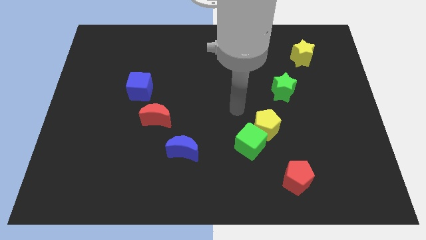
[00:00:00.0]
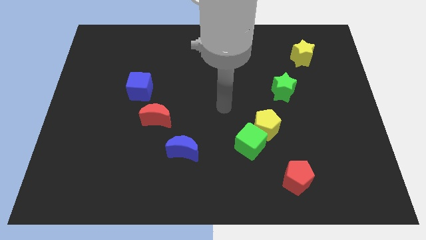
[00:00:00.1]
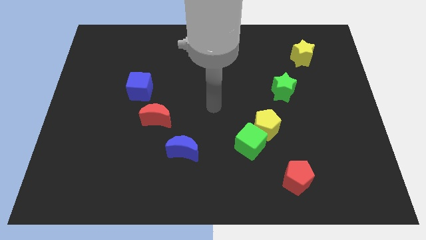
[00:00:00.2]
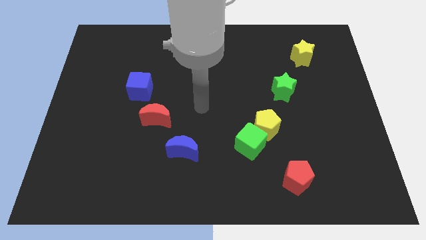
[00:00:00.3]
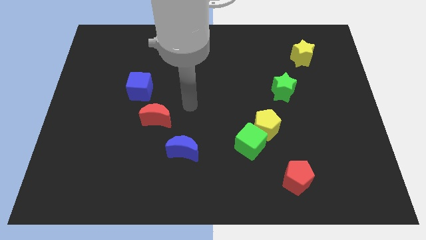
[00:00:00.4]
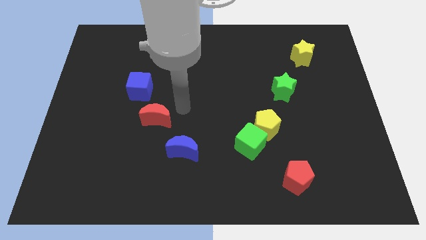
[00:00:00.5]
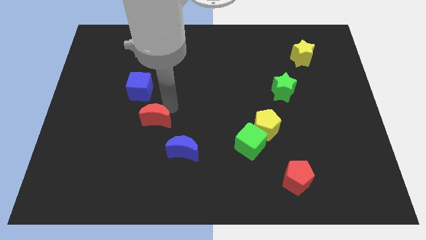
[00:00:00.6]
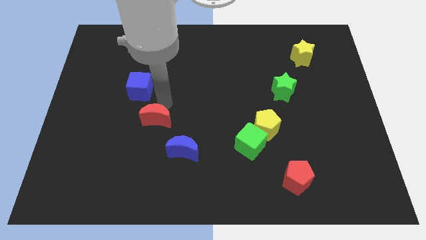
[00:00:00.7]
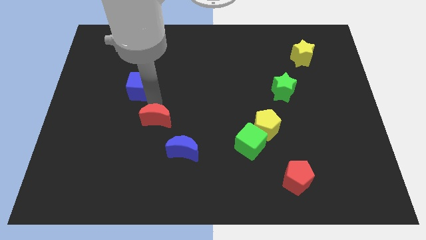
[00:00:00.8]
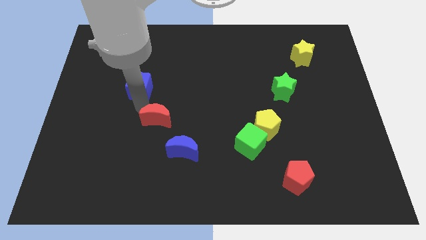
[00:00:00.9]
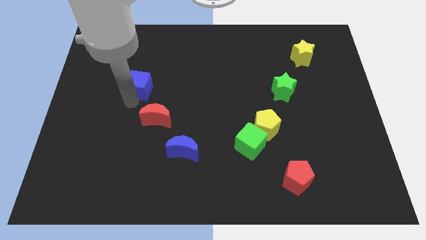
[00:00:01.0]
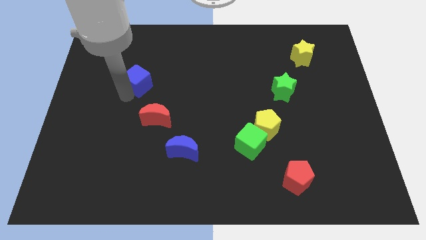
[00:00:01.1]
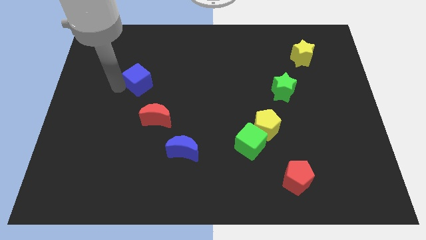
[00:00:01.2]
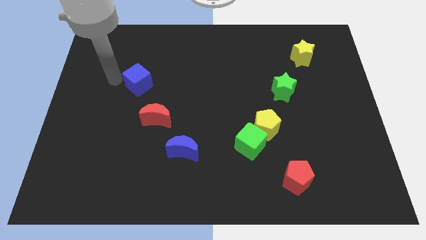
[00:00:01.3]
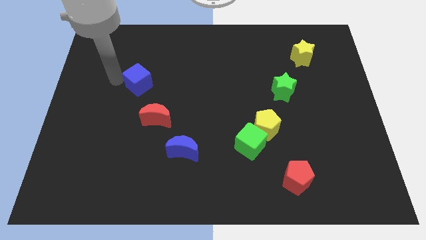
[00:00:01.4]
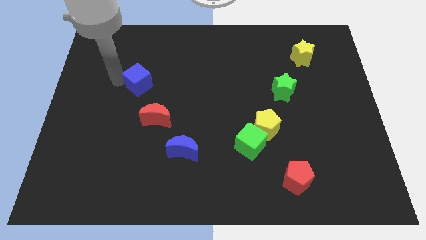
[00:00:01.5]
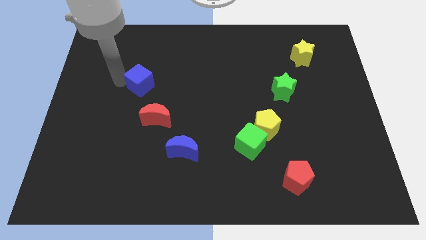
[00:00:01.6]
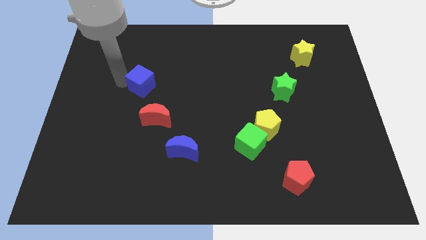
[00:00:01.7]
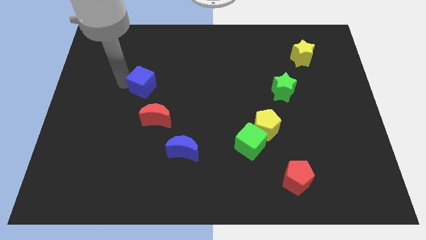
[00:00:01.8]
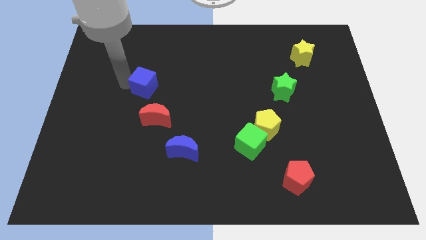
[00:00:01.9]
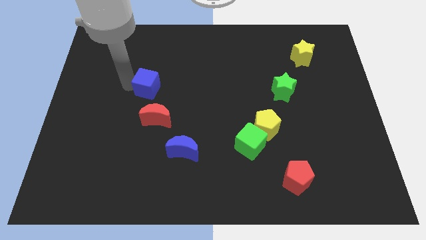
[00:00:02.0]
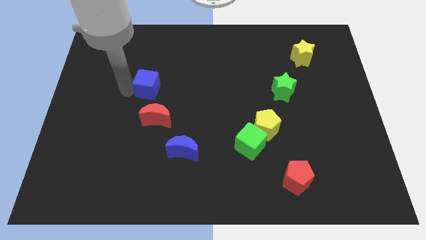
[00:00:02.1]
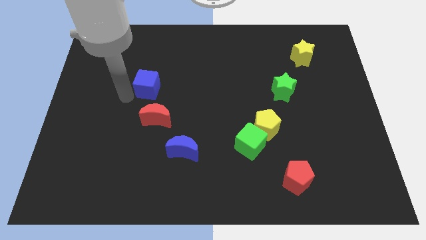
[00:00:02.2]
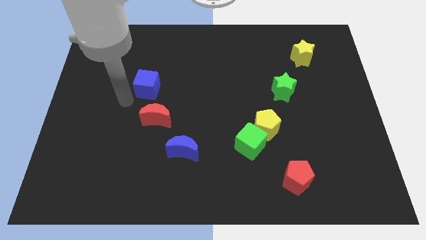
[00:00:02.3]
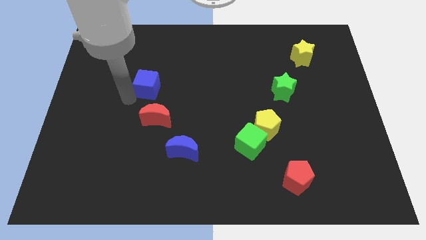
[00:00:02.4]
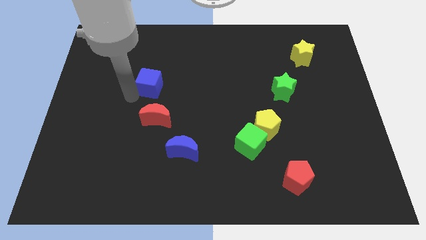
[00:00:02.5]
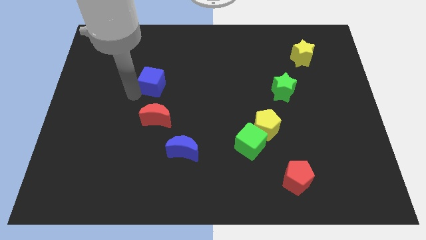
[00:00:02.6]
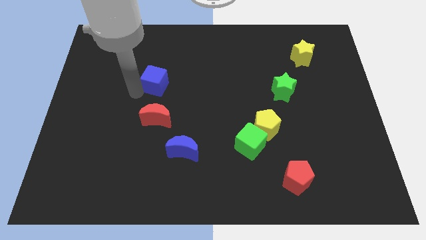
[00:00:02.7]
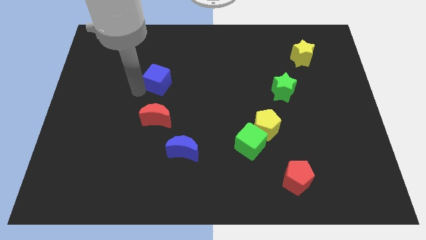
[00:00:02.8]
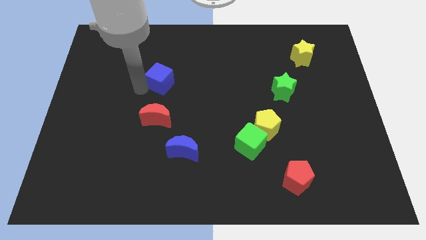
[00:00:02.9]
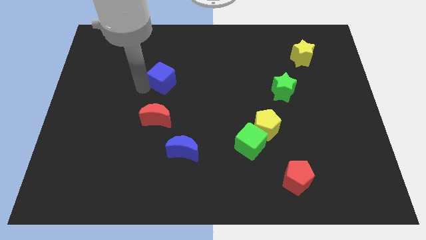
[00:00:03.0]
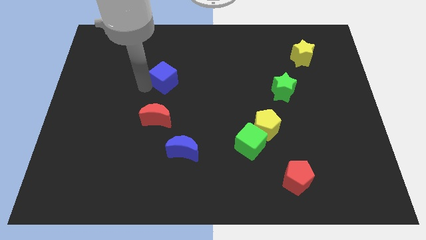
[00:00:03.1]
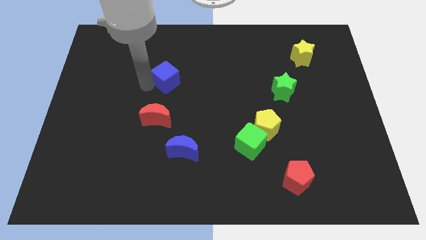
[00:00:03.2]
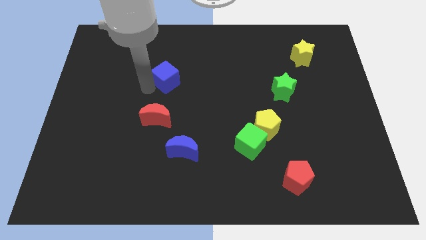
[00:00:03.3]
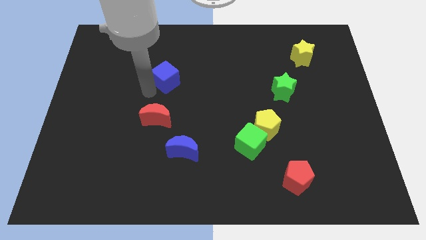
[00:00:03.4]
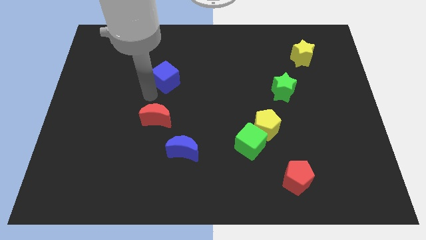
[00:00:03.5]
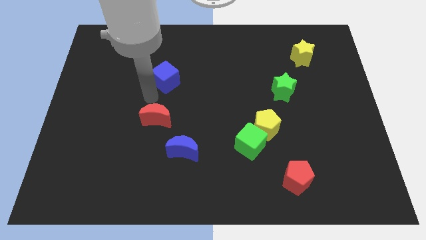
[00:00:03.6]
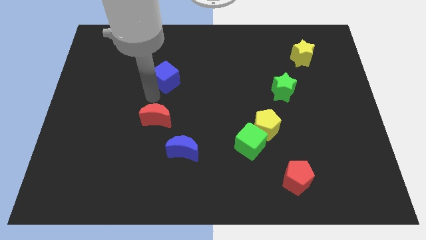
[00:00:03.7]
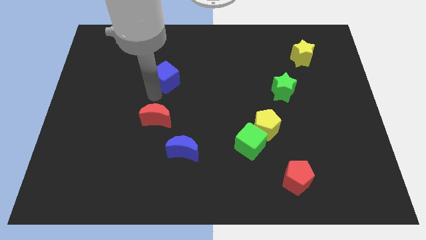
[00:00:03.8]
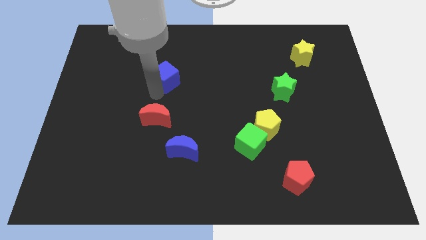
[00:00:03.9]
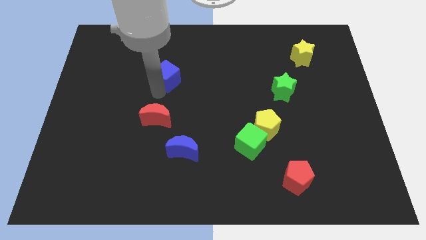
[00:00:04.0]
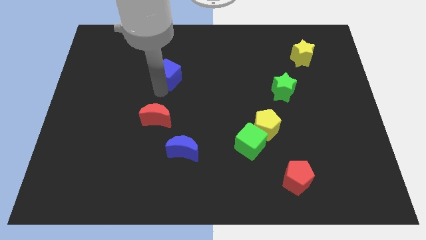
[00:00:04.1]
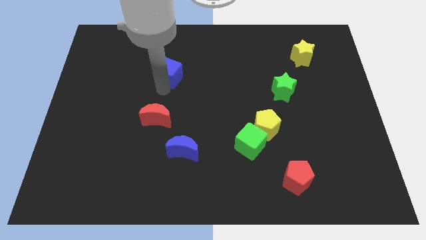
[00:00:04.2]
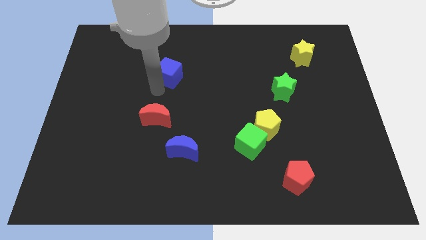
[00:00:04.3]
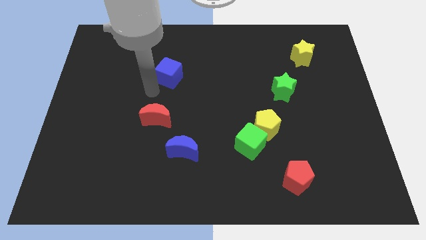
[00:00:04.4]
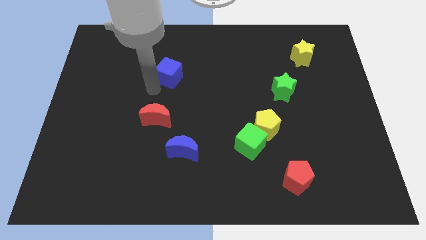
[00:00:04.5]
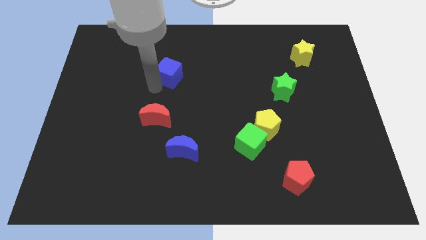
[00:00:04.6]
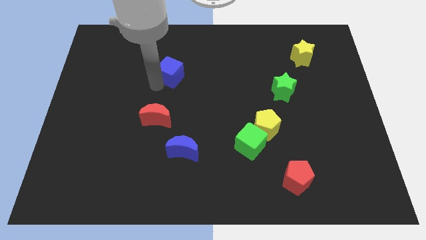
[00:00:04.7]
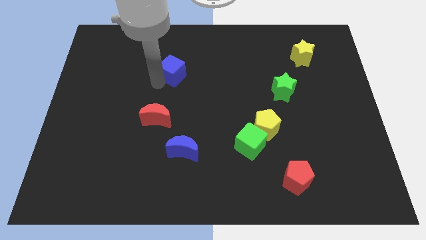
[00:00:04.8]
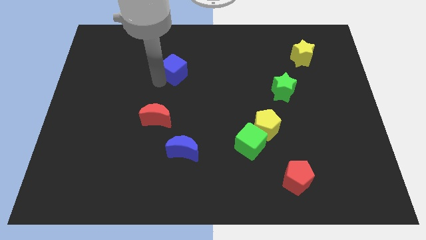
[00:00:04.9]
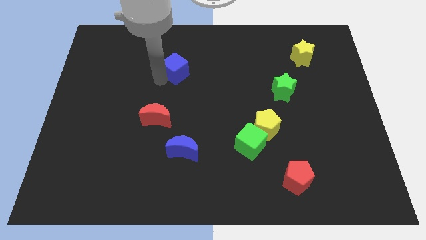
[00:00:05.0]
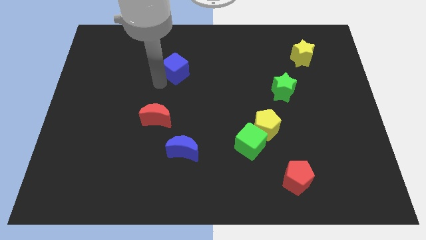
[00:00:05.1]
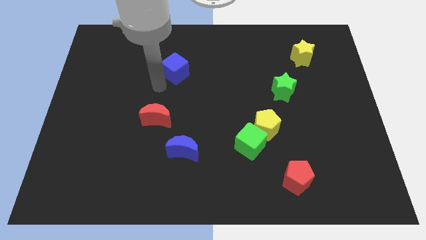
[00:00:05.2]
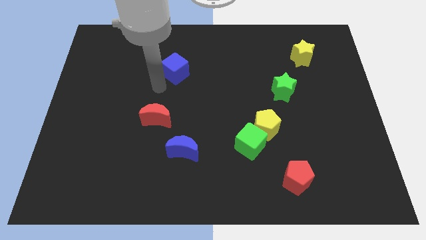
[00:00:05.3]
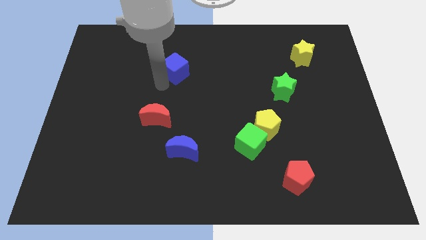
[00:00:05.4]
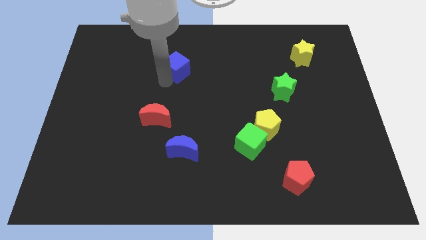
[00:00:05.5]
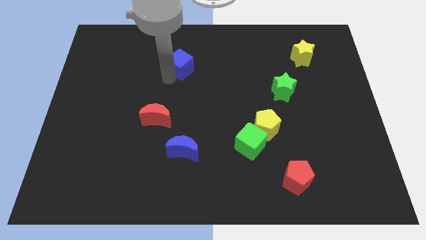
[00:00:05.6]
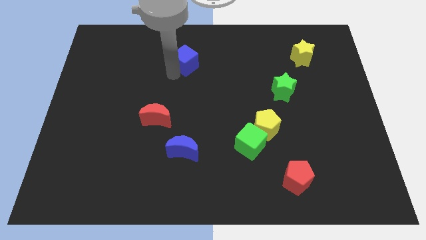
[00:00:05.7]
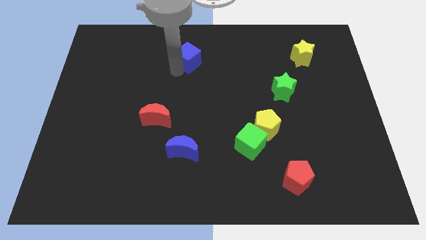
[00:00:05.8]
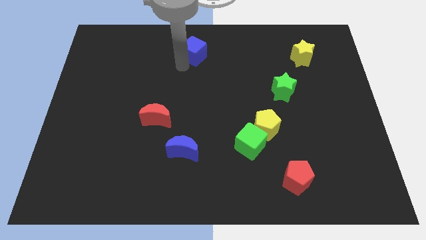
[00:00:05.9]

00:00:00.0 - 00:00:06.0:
push the blue cube to the top
